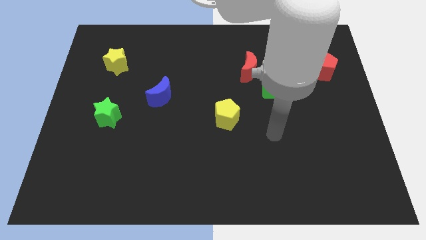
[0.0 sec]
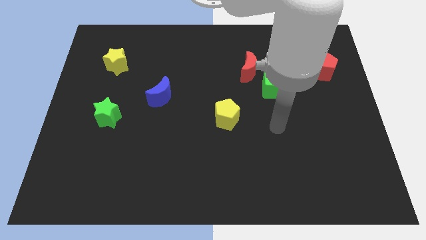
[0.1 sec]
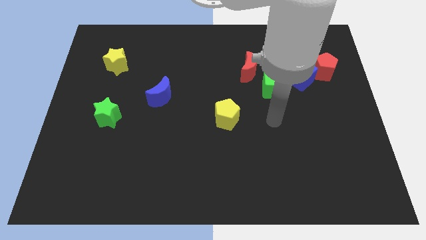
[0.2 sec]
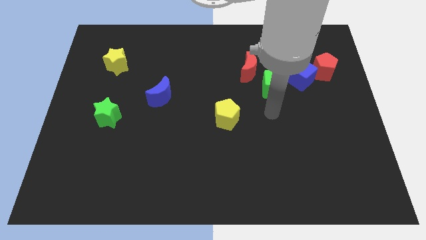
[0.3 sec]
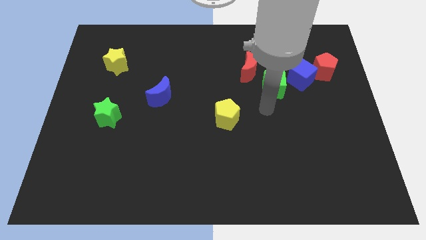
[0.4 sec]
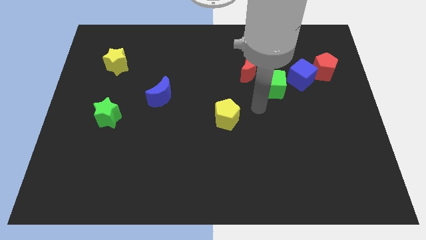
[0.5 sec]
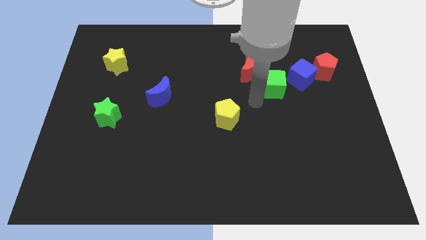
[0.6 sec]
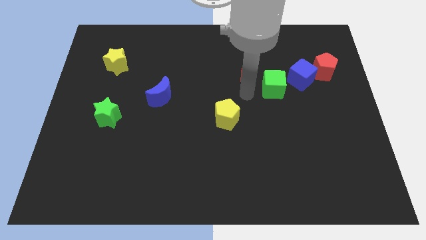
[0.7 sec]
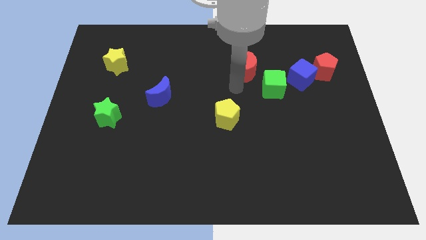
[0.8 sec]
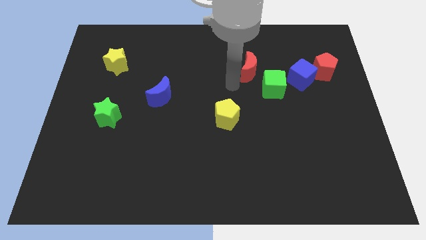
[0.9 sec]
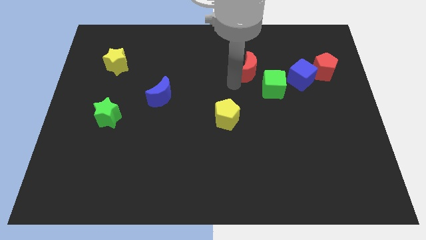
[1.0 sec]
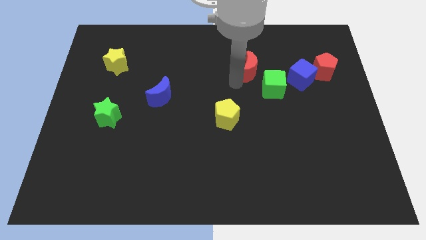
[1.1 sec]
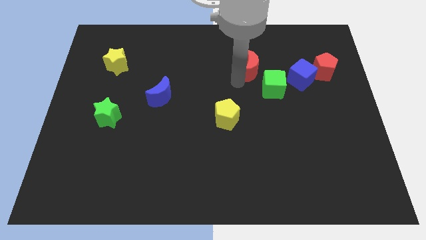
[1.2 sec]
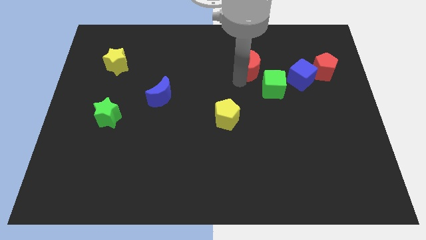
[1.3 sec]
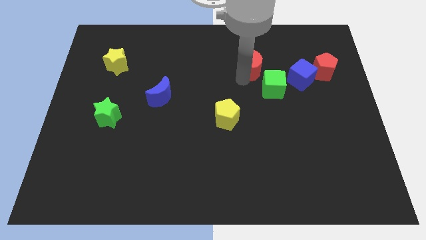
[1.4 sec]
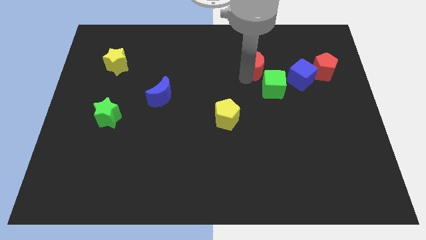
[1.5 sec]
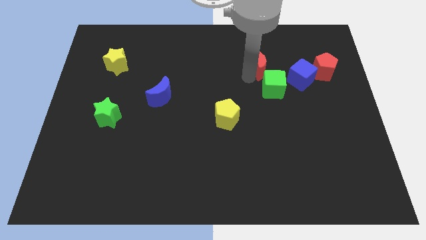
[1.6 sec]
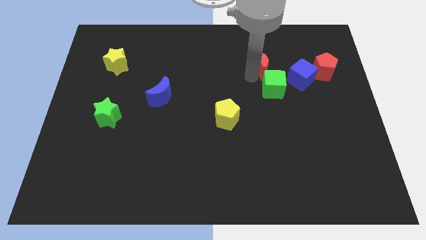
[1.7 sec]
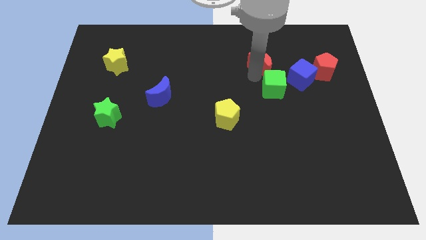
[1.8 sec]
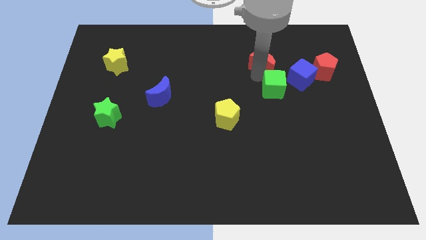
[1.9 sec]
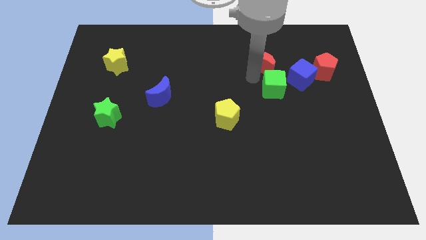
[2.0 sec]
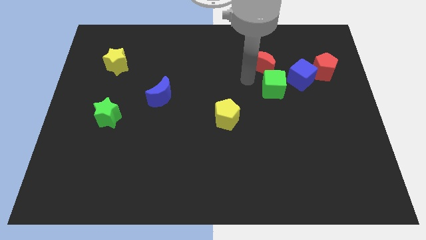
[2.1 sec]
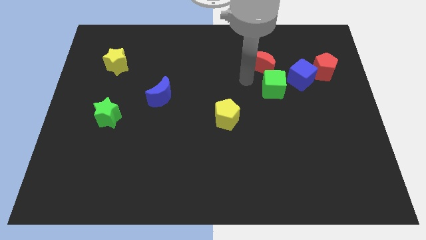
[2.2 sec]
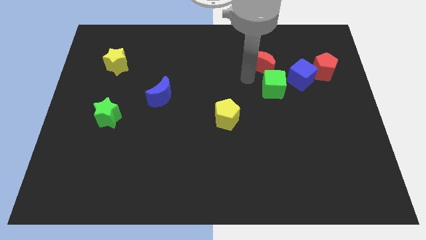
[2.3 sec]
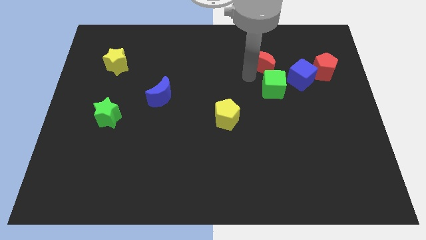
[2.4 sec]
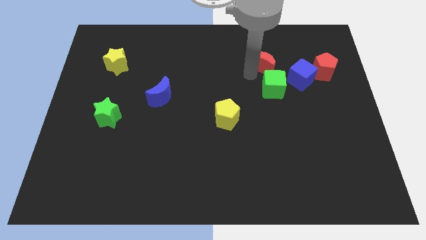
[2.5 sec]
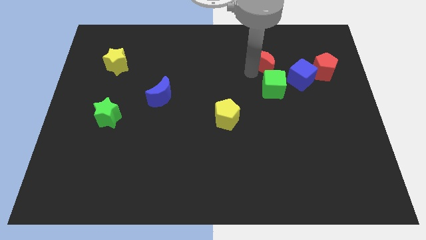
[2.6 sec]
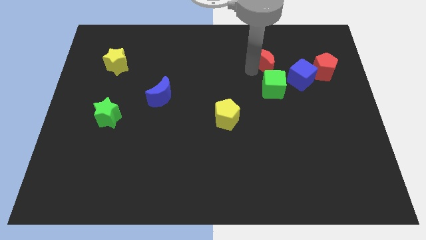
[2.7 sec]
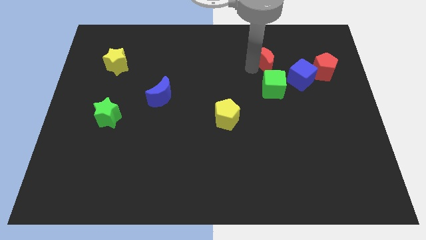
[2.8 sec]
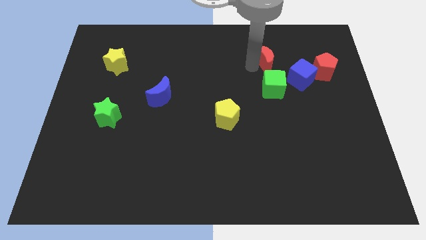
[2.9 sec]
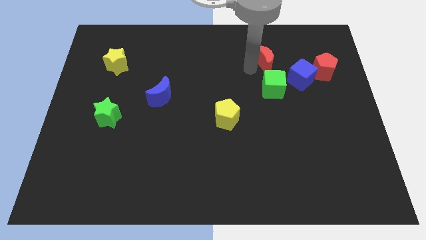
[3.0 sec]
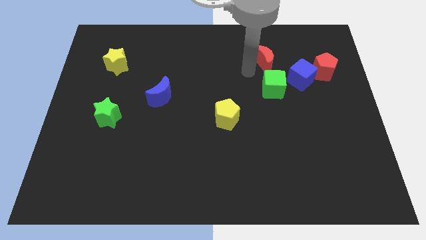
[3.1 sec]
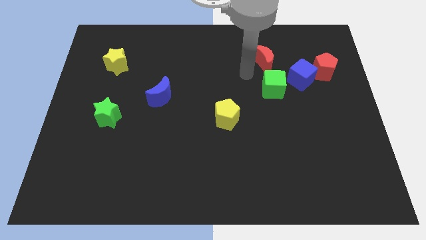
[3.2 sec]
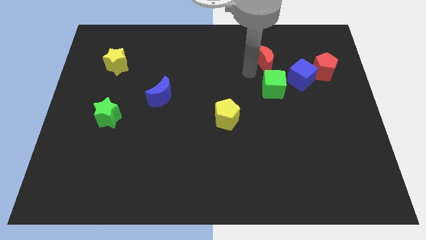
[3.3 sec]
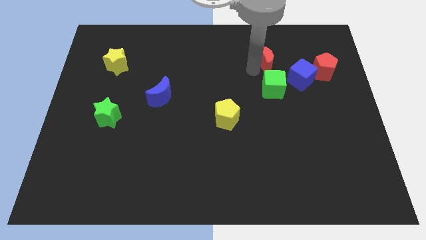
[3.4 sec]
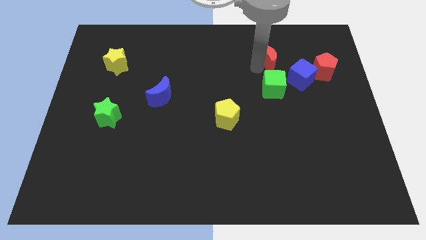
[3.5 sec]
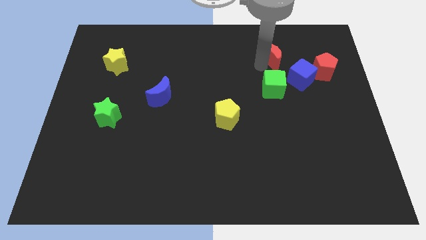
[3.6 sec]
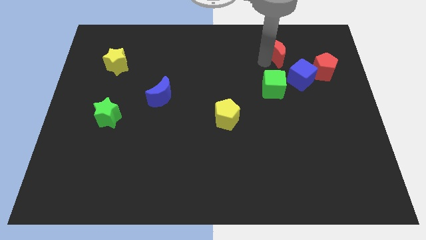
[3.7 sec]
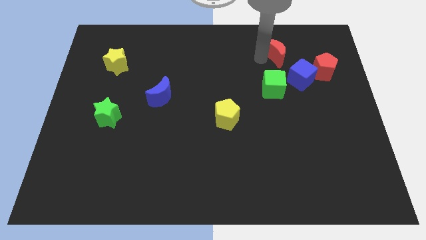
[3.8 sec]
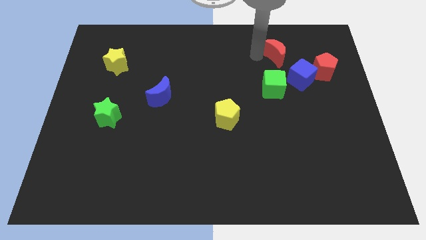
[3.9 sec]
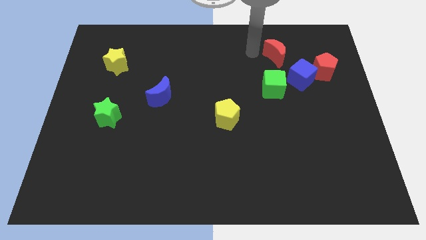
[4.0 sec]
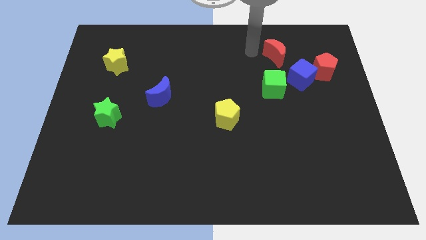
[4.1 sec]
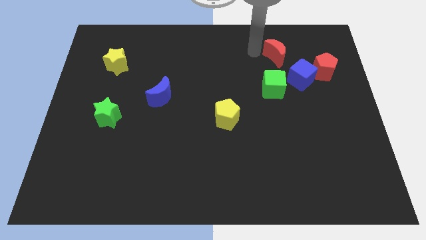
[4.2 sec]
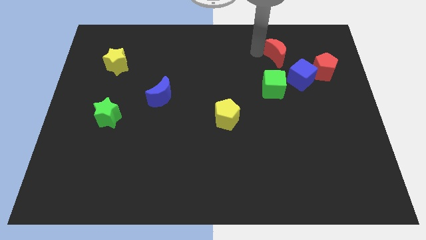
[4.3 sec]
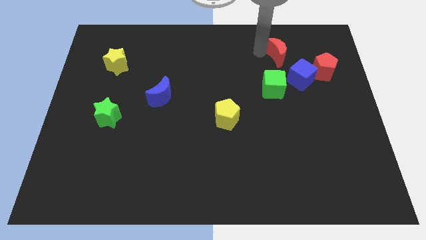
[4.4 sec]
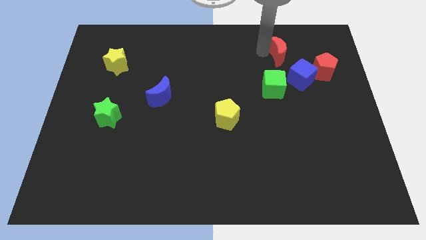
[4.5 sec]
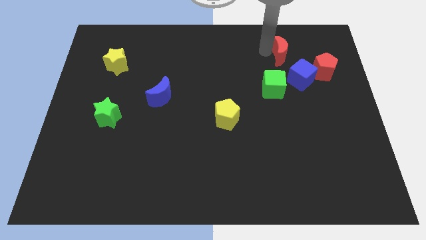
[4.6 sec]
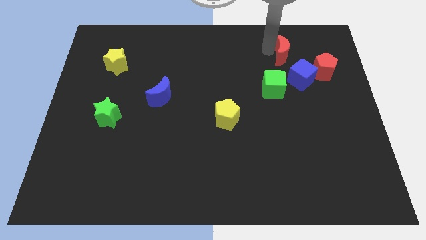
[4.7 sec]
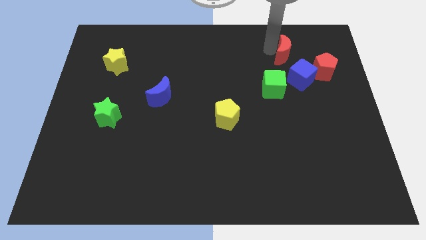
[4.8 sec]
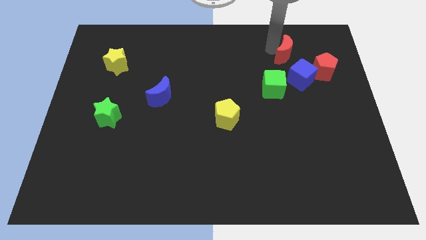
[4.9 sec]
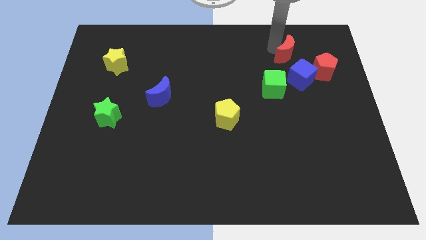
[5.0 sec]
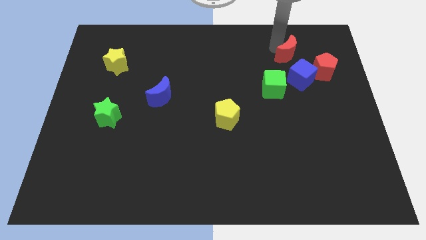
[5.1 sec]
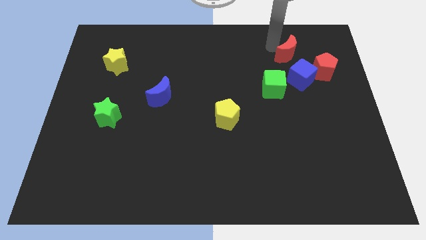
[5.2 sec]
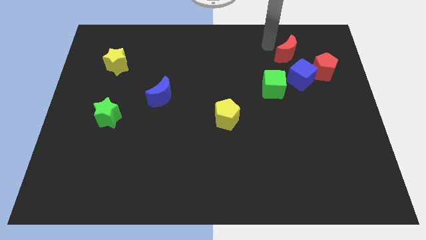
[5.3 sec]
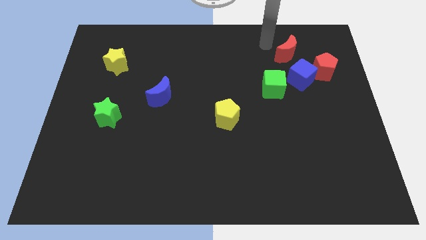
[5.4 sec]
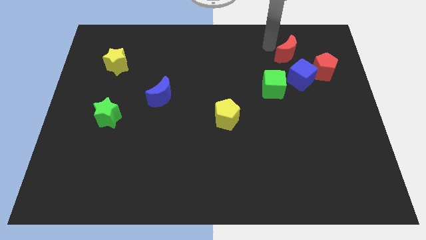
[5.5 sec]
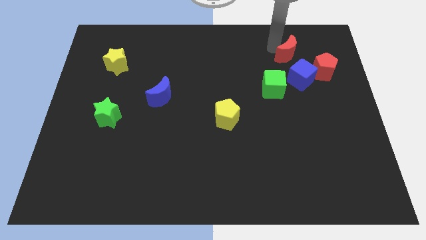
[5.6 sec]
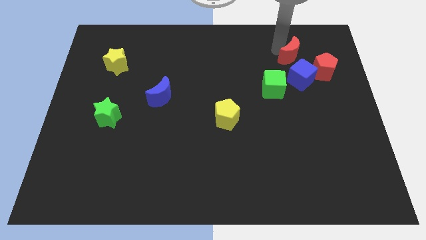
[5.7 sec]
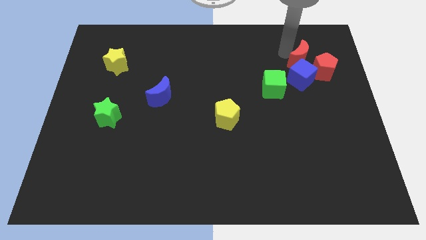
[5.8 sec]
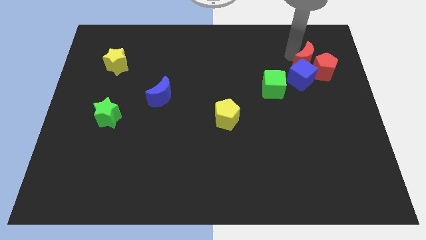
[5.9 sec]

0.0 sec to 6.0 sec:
push the red moon to the red pentagon

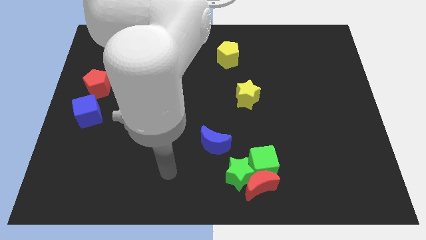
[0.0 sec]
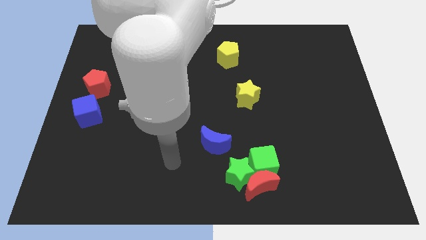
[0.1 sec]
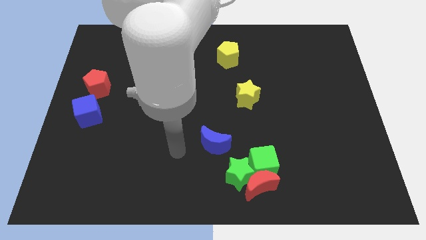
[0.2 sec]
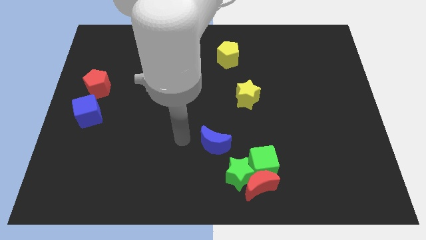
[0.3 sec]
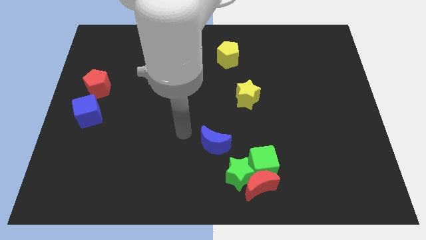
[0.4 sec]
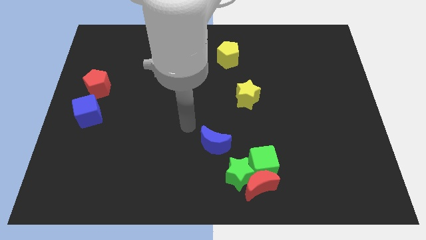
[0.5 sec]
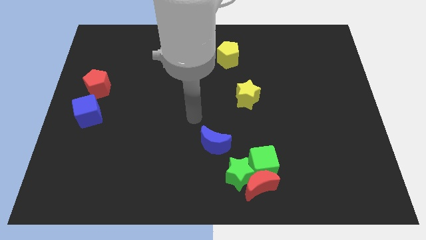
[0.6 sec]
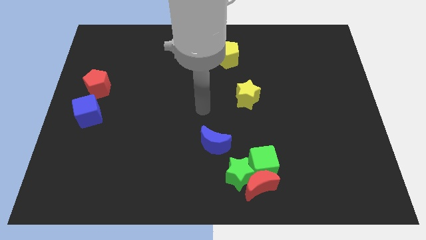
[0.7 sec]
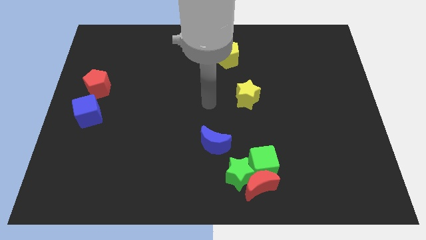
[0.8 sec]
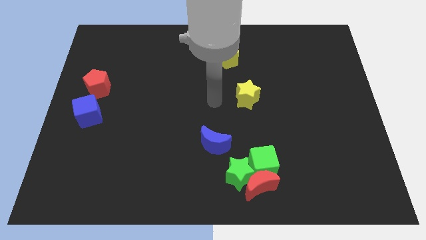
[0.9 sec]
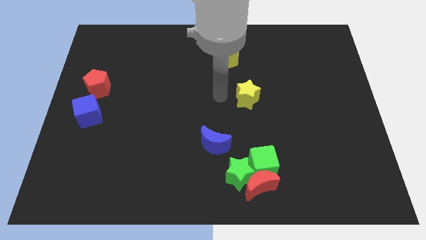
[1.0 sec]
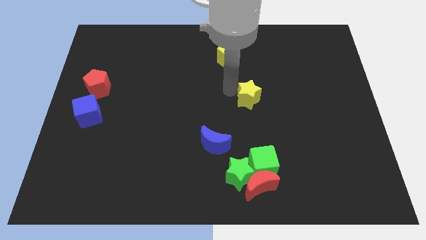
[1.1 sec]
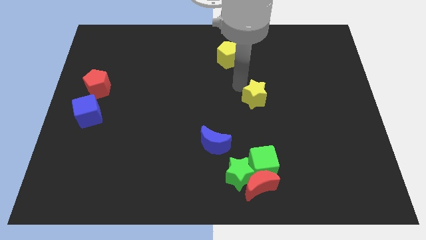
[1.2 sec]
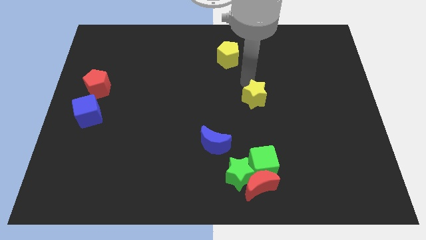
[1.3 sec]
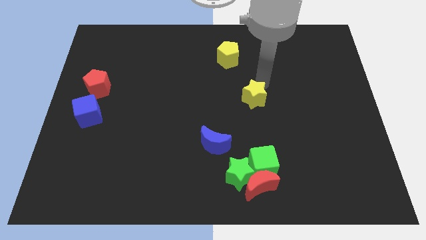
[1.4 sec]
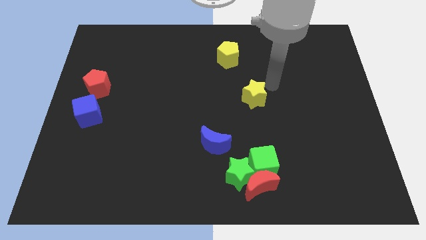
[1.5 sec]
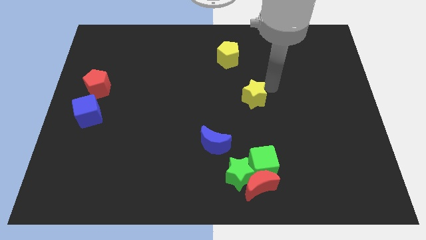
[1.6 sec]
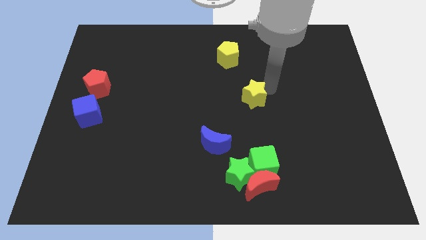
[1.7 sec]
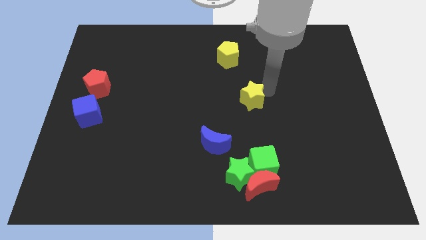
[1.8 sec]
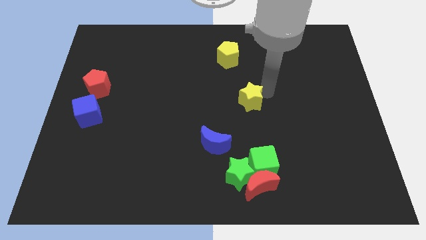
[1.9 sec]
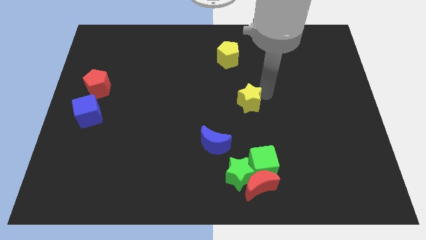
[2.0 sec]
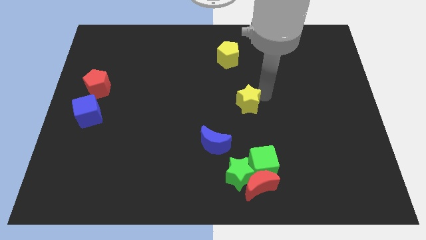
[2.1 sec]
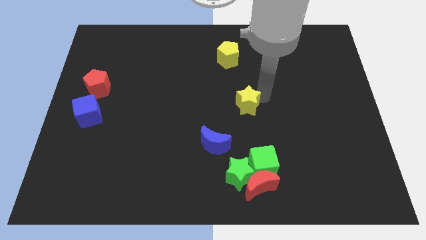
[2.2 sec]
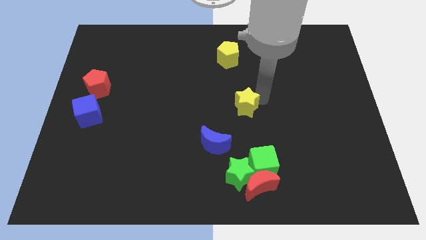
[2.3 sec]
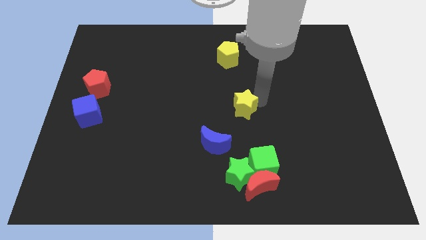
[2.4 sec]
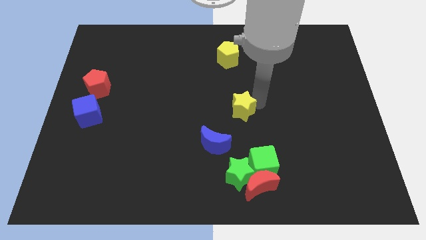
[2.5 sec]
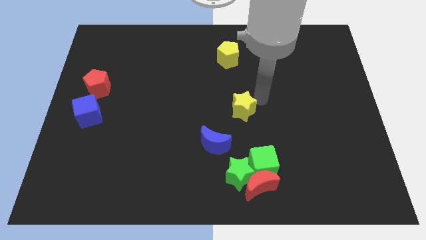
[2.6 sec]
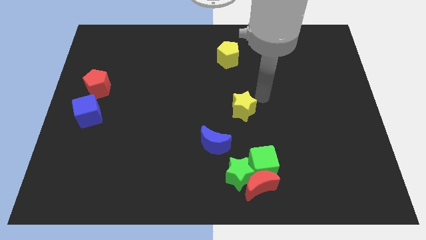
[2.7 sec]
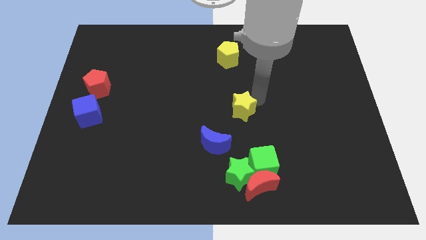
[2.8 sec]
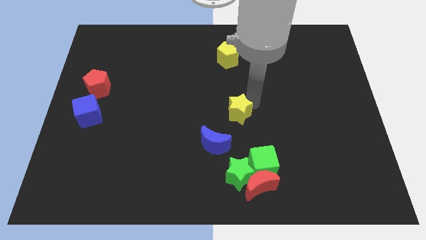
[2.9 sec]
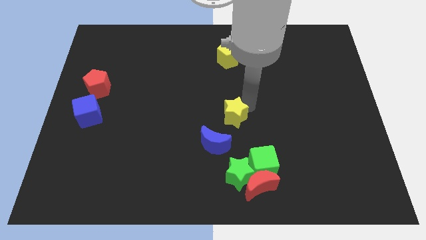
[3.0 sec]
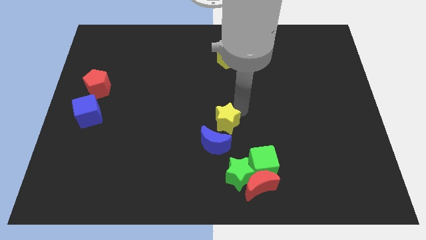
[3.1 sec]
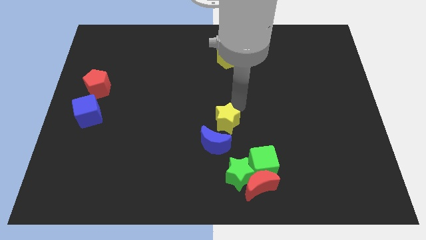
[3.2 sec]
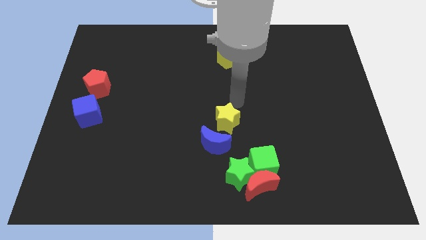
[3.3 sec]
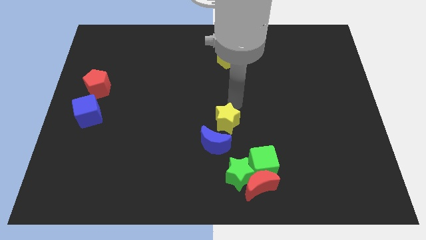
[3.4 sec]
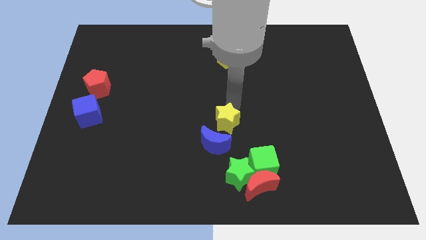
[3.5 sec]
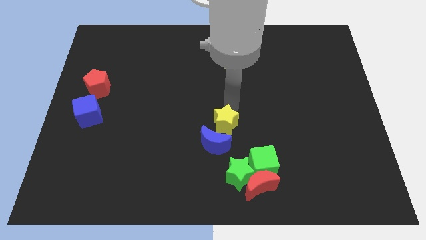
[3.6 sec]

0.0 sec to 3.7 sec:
move the yellow star close to the blue moon
